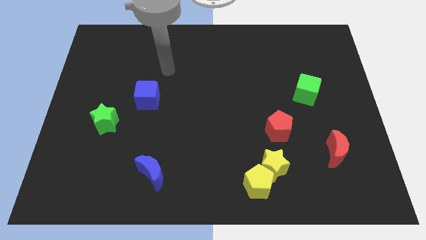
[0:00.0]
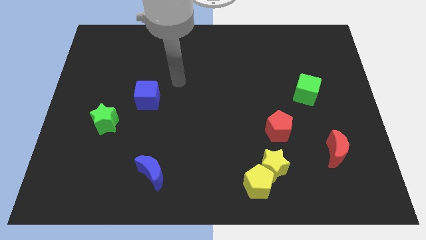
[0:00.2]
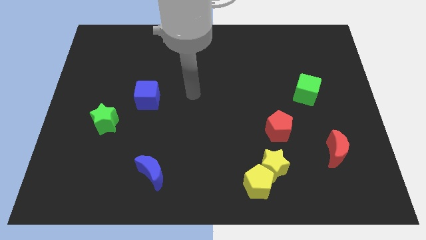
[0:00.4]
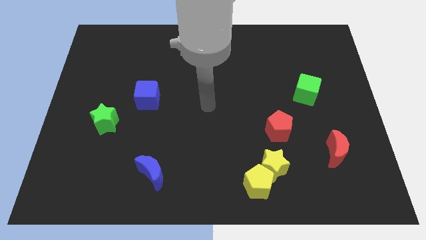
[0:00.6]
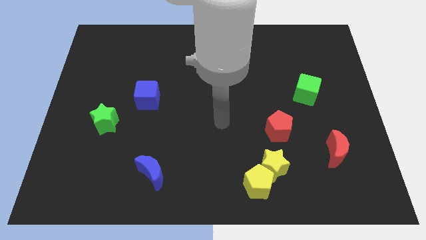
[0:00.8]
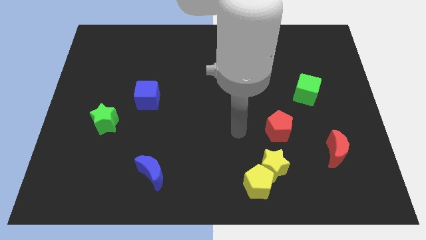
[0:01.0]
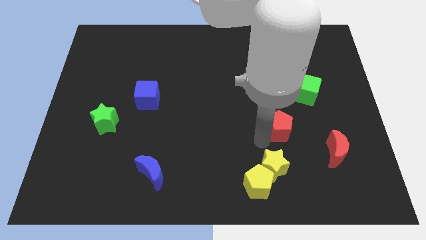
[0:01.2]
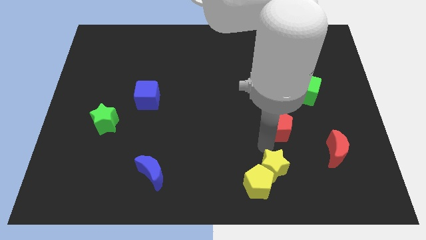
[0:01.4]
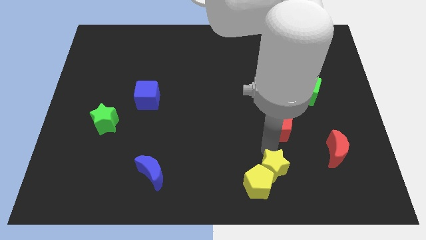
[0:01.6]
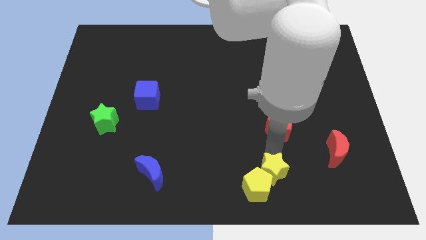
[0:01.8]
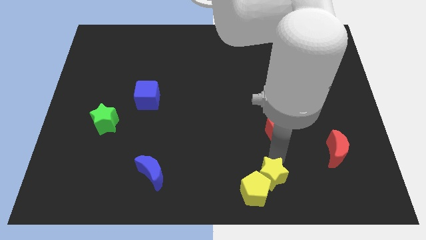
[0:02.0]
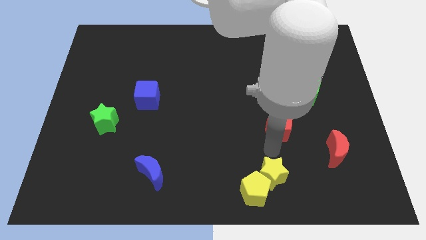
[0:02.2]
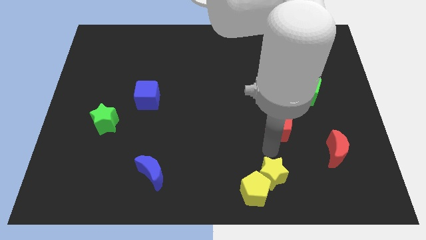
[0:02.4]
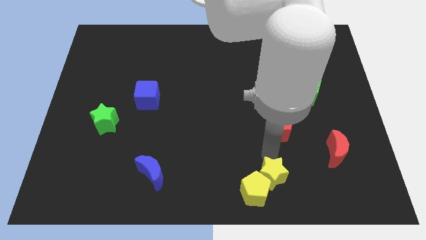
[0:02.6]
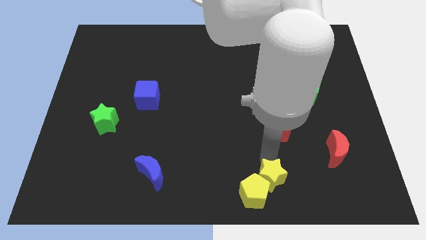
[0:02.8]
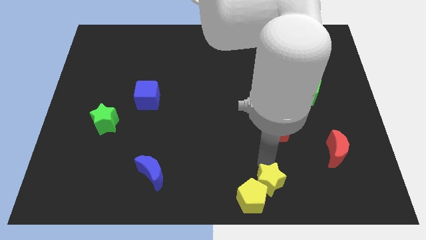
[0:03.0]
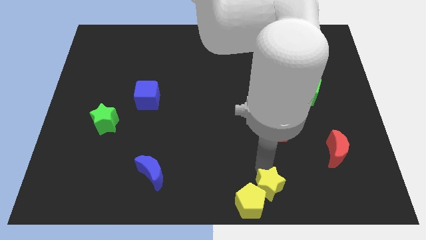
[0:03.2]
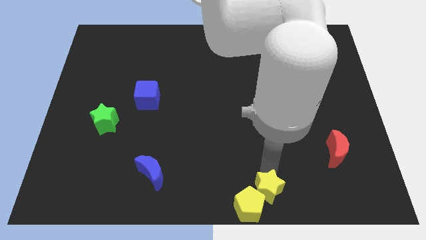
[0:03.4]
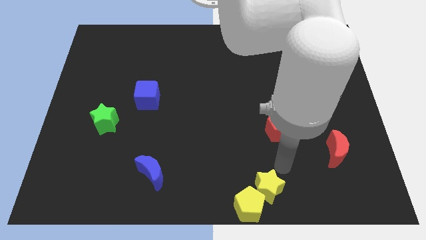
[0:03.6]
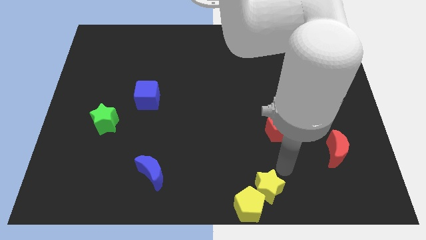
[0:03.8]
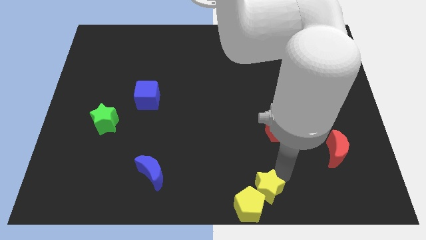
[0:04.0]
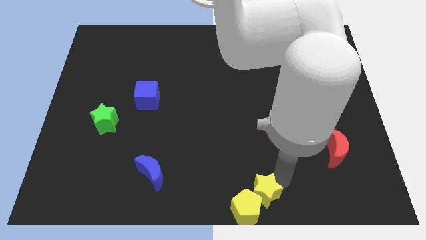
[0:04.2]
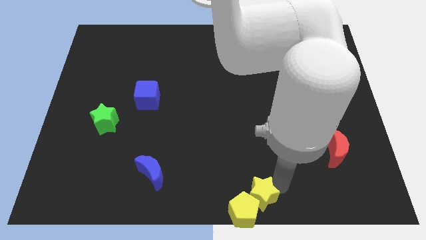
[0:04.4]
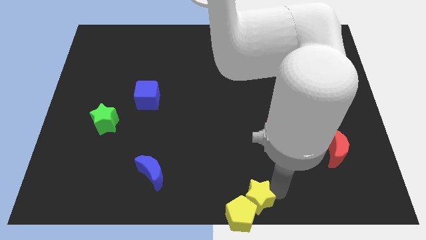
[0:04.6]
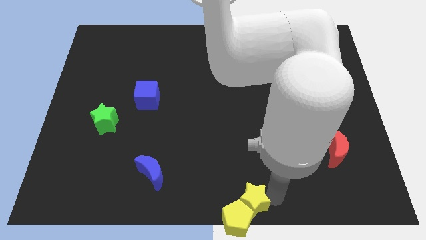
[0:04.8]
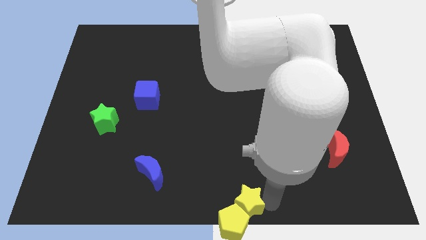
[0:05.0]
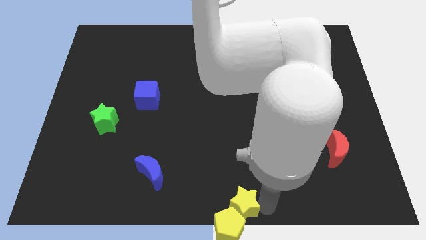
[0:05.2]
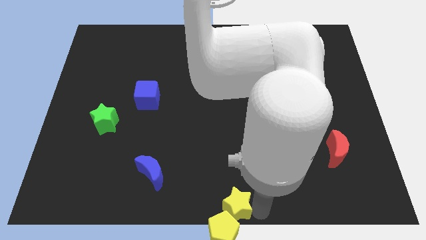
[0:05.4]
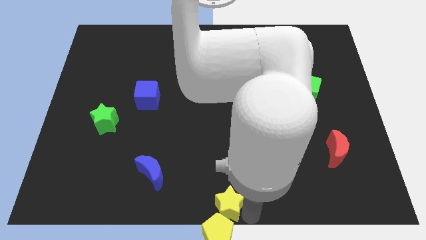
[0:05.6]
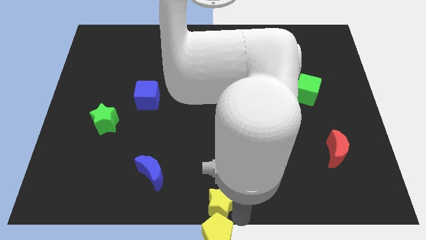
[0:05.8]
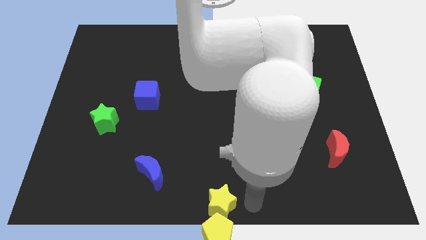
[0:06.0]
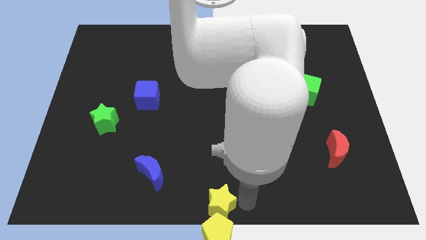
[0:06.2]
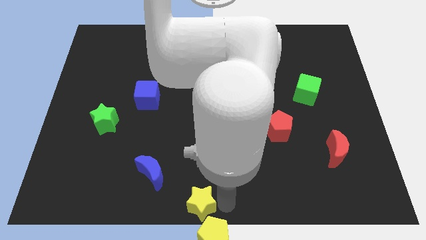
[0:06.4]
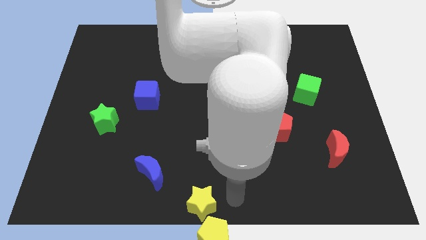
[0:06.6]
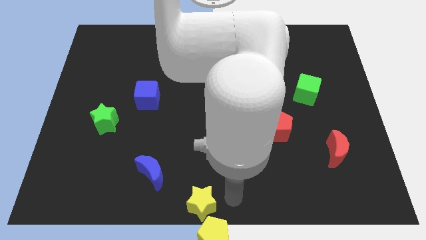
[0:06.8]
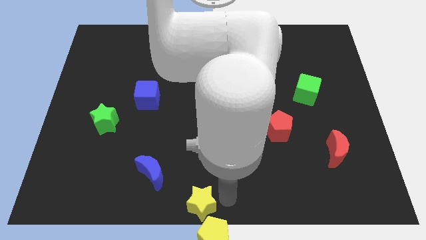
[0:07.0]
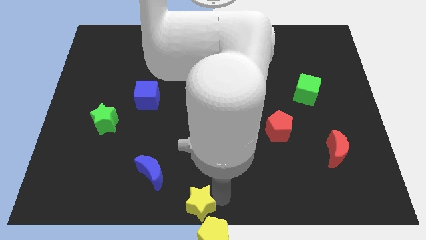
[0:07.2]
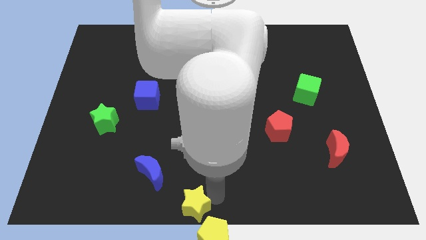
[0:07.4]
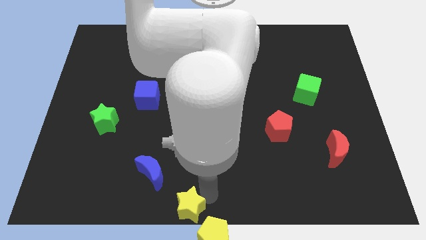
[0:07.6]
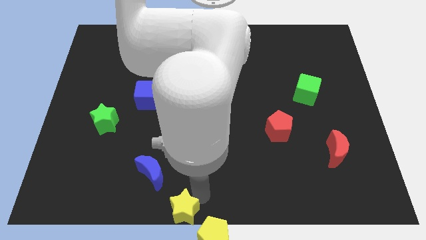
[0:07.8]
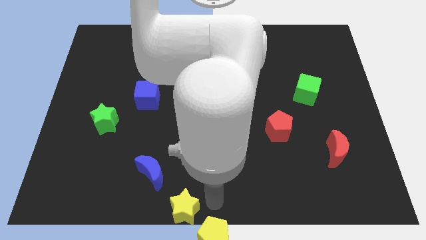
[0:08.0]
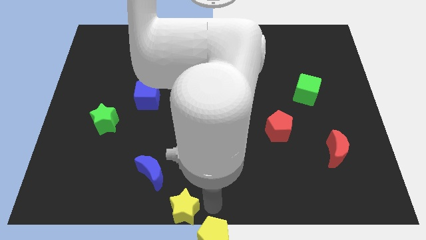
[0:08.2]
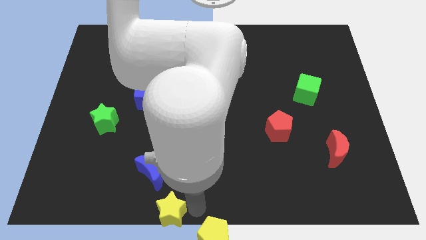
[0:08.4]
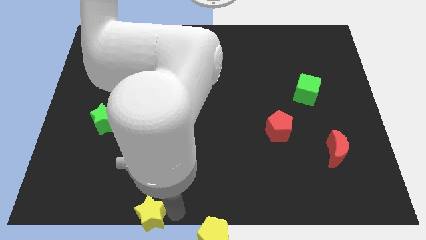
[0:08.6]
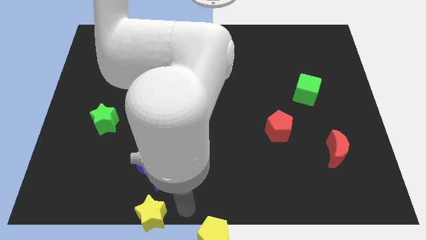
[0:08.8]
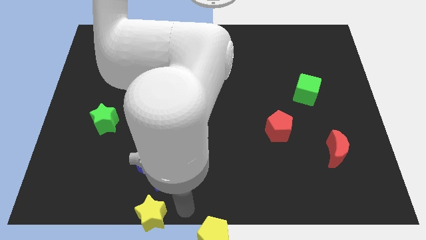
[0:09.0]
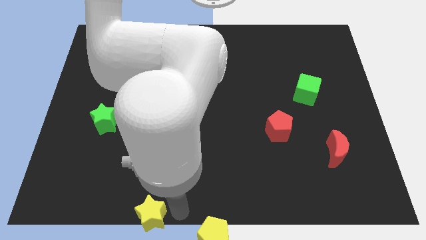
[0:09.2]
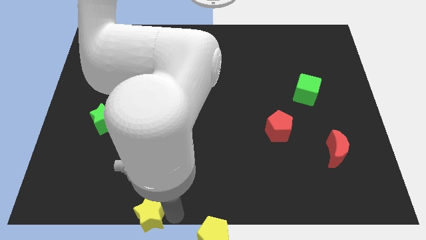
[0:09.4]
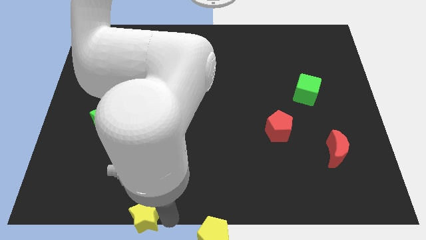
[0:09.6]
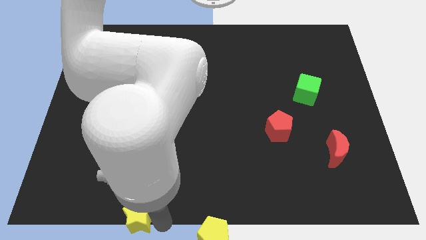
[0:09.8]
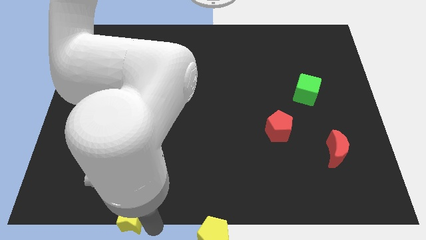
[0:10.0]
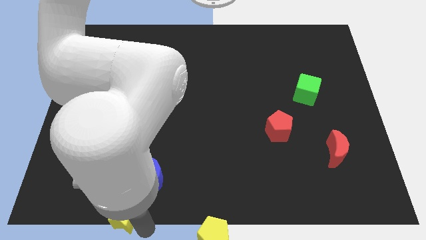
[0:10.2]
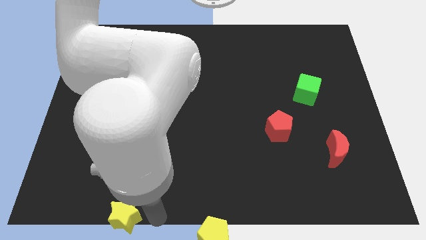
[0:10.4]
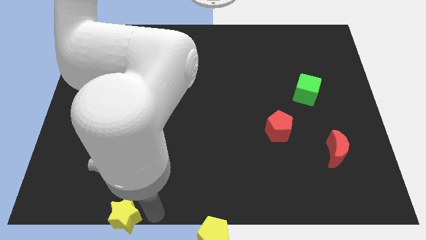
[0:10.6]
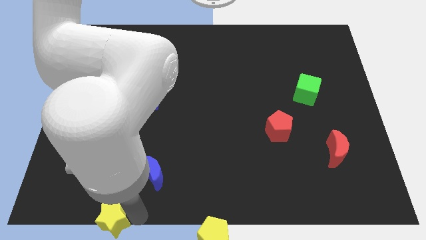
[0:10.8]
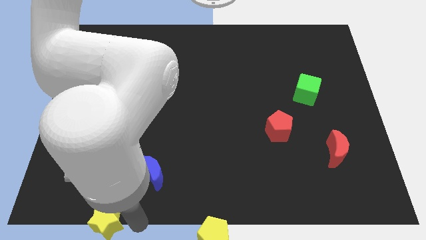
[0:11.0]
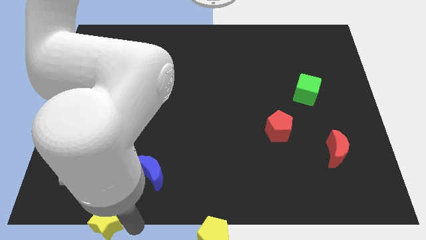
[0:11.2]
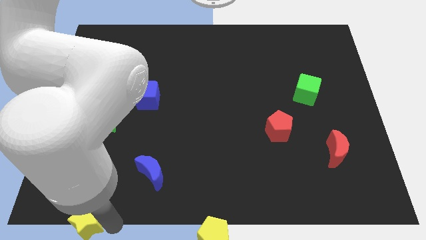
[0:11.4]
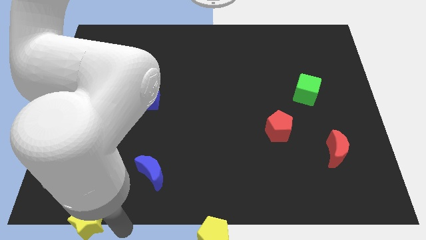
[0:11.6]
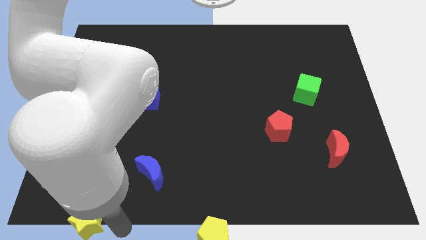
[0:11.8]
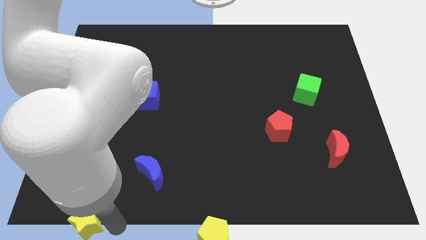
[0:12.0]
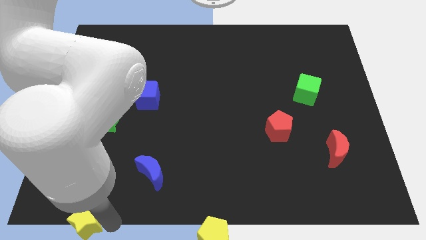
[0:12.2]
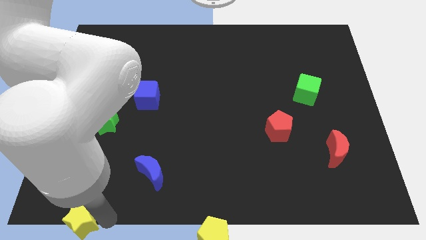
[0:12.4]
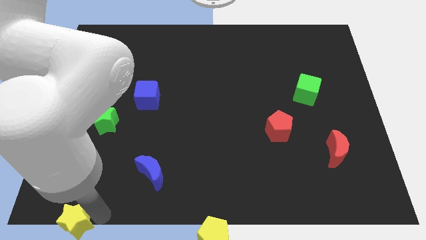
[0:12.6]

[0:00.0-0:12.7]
push the yellow star to the bottom left of the board
